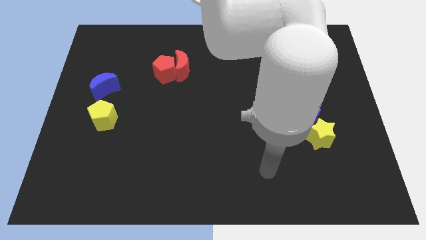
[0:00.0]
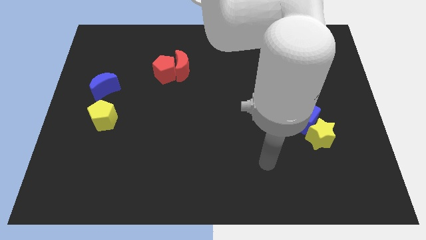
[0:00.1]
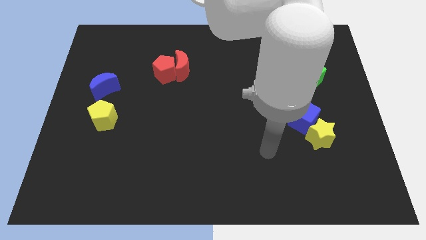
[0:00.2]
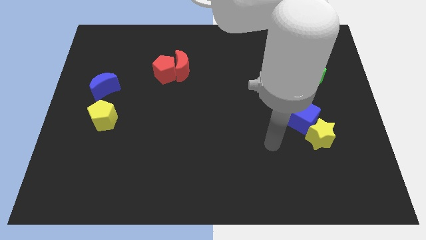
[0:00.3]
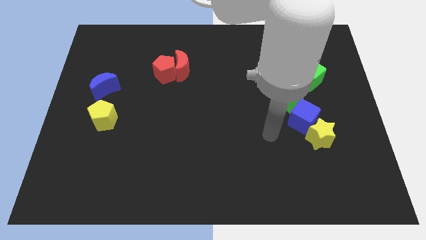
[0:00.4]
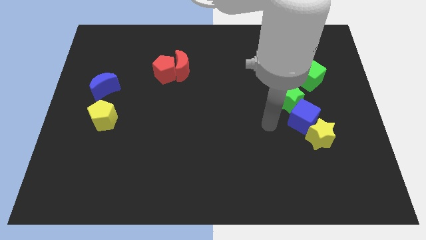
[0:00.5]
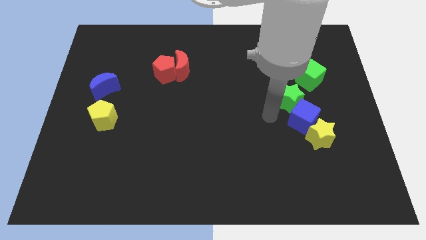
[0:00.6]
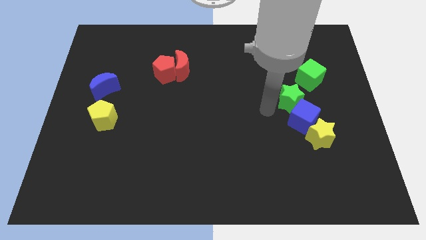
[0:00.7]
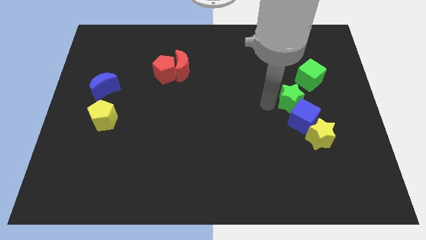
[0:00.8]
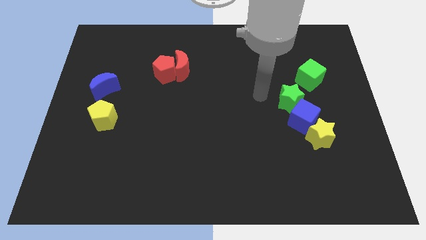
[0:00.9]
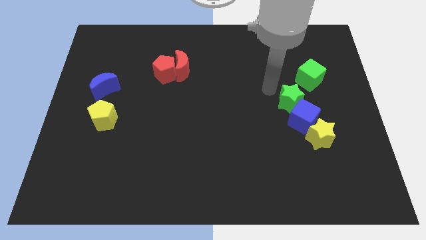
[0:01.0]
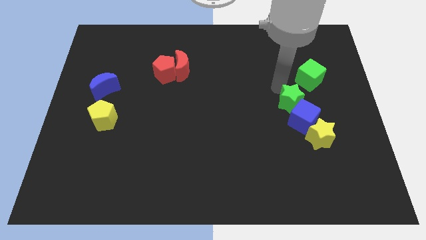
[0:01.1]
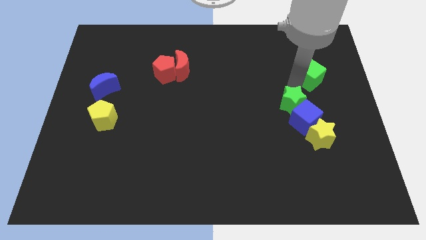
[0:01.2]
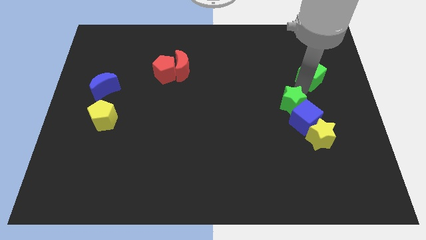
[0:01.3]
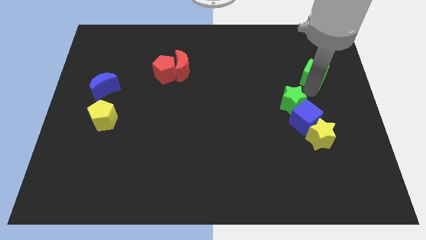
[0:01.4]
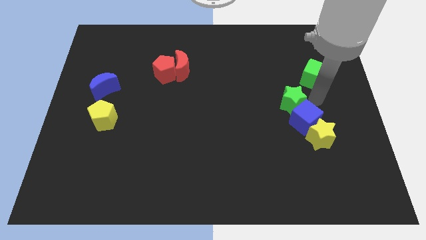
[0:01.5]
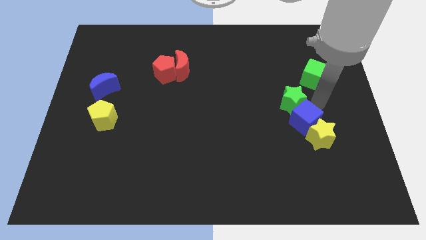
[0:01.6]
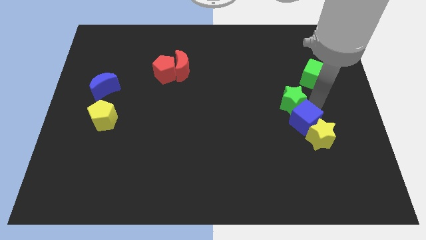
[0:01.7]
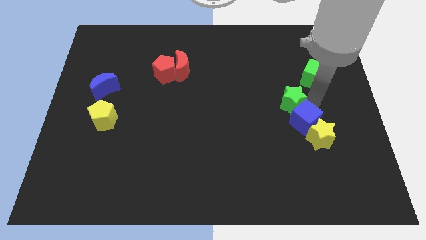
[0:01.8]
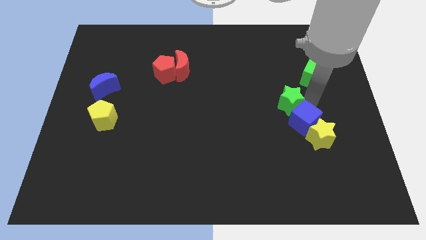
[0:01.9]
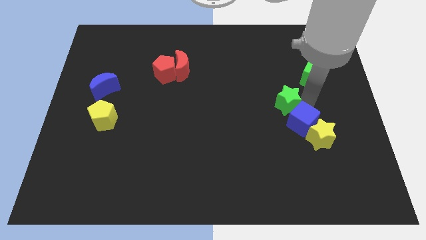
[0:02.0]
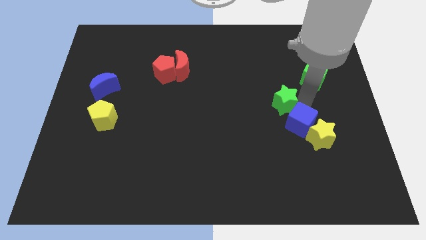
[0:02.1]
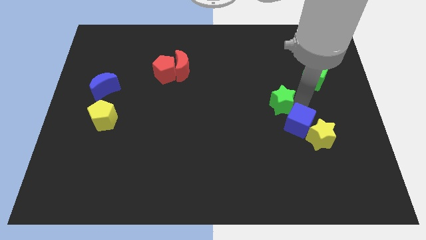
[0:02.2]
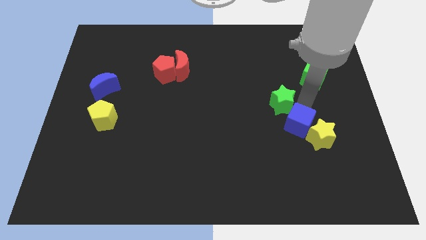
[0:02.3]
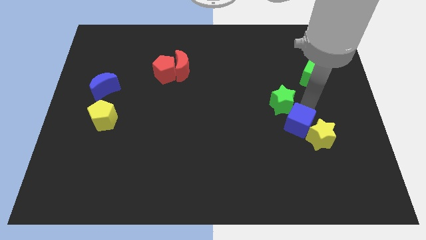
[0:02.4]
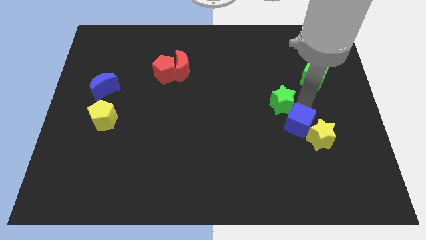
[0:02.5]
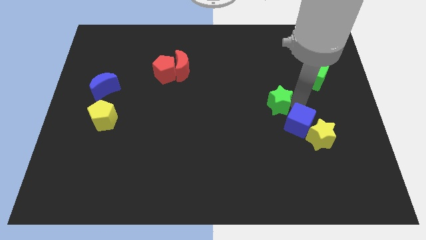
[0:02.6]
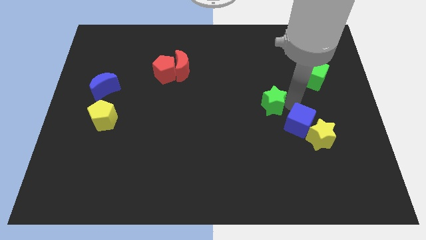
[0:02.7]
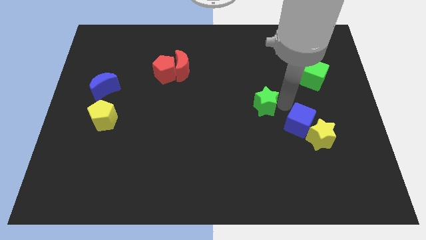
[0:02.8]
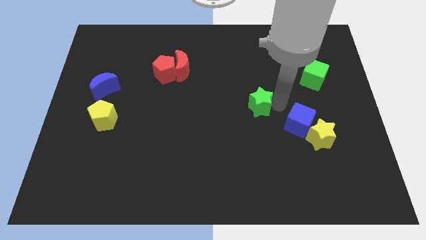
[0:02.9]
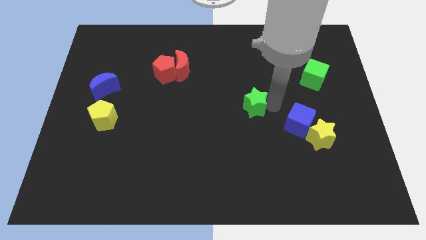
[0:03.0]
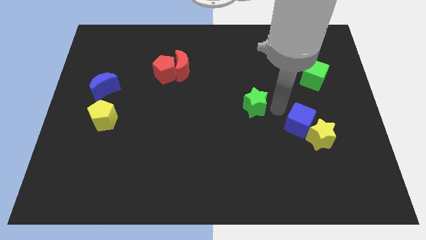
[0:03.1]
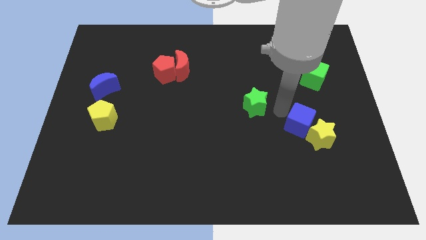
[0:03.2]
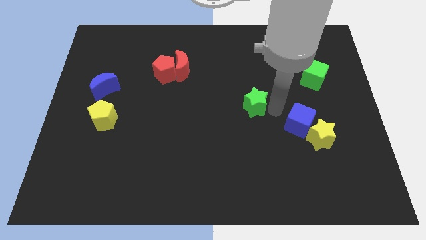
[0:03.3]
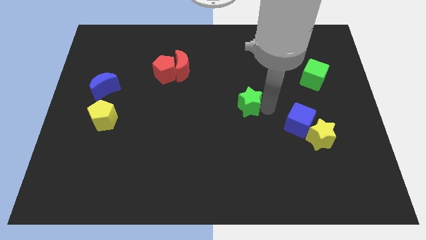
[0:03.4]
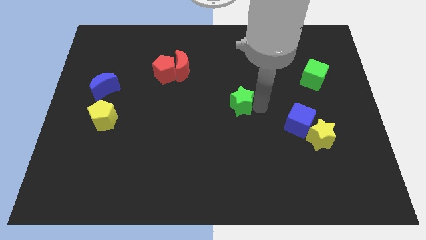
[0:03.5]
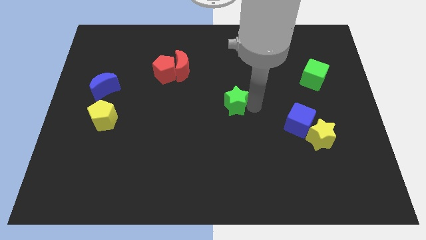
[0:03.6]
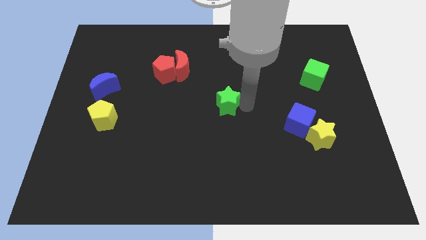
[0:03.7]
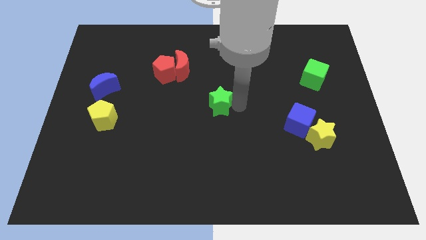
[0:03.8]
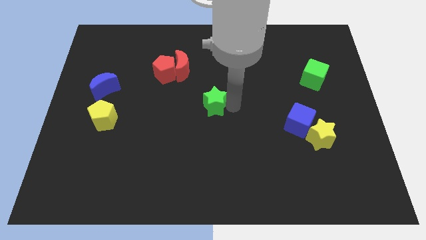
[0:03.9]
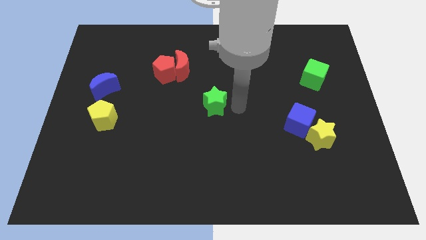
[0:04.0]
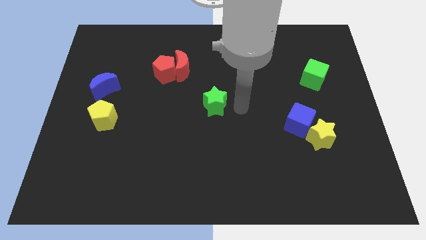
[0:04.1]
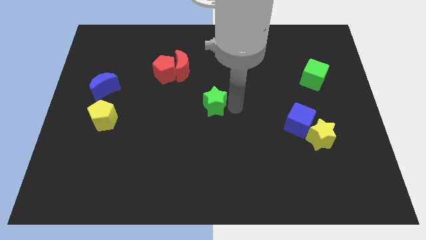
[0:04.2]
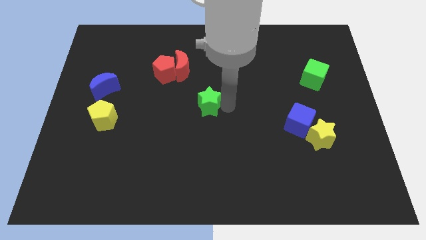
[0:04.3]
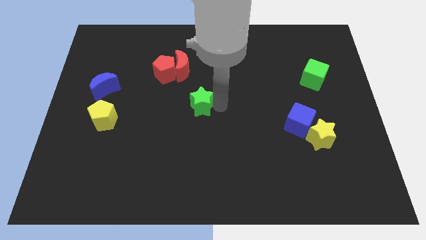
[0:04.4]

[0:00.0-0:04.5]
slide the green star to the left

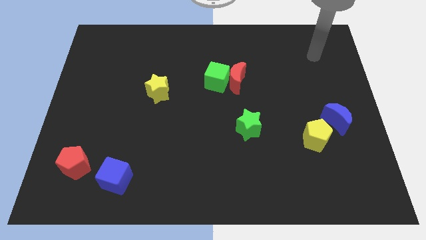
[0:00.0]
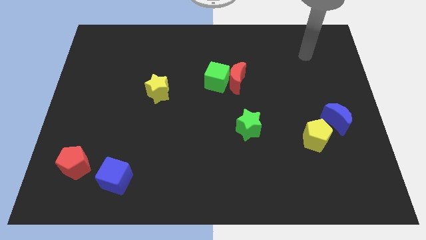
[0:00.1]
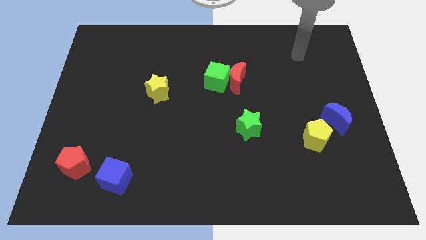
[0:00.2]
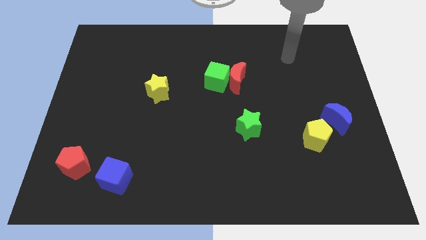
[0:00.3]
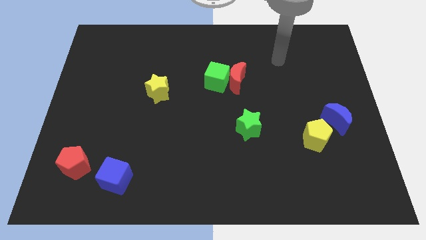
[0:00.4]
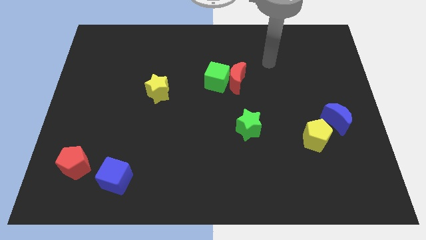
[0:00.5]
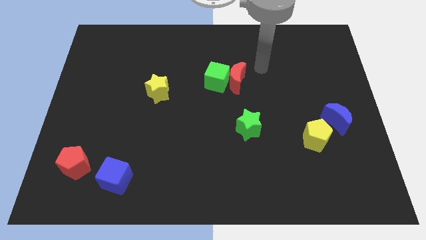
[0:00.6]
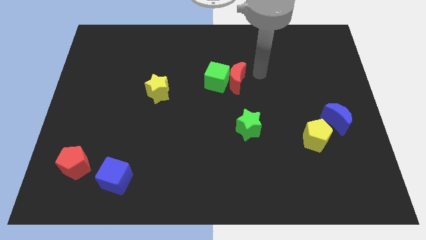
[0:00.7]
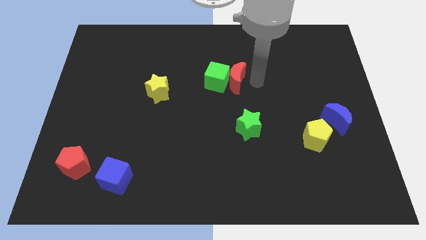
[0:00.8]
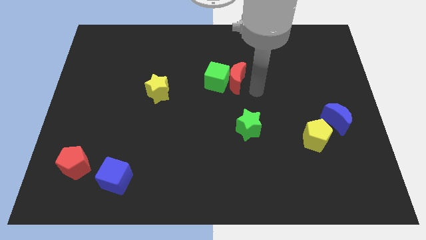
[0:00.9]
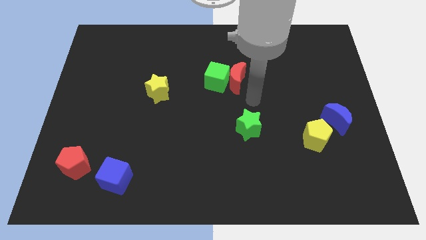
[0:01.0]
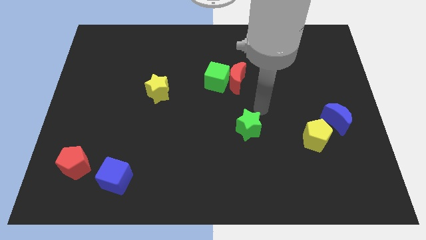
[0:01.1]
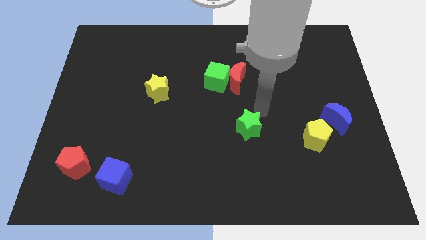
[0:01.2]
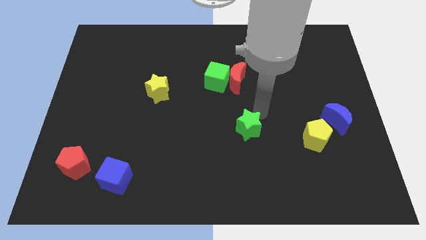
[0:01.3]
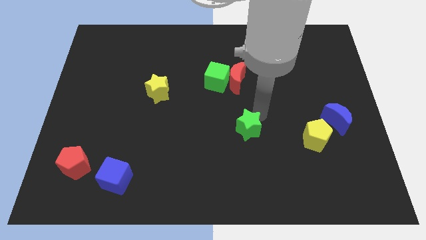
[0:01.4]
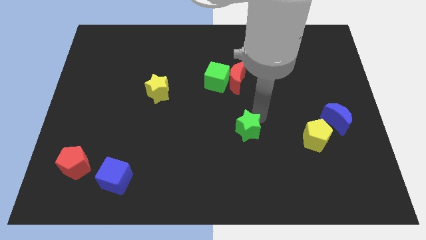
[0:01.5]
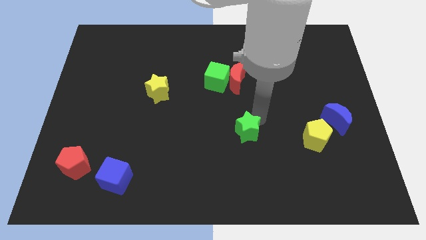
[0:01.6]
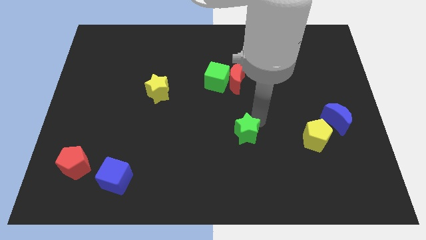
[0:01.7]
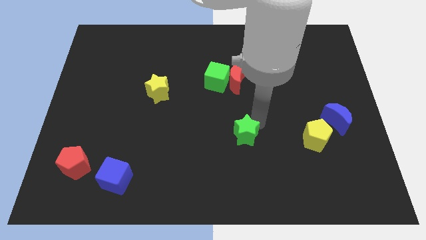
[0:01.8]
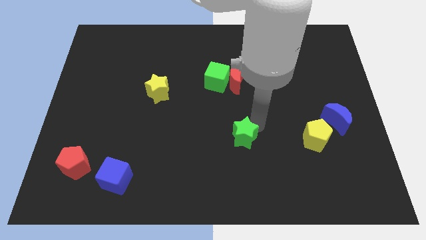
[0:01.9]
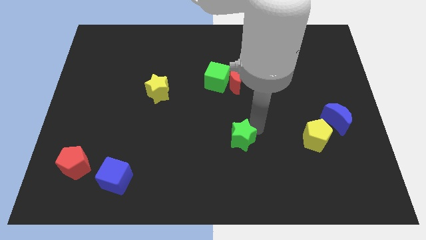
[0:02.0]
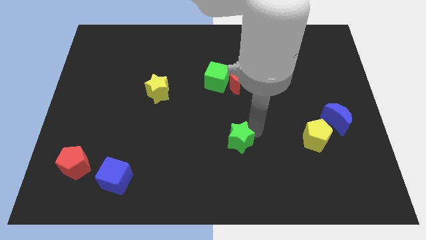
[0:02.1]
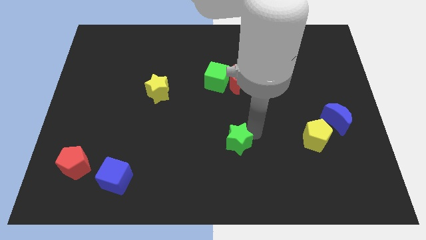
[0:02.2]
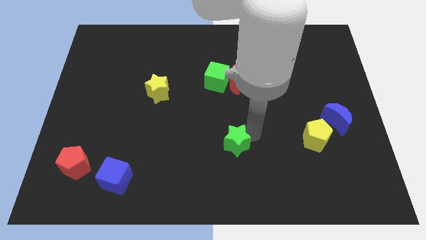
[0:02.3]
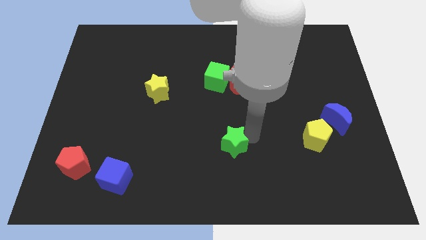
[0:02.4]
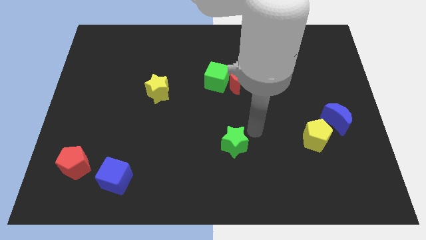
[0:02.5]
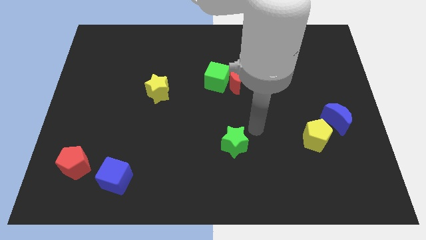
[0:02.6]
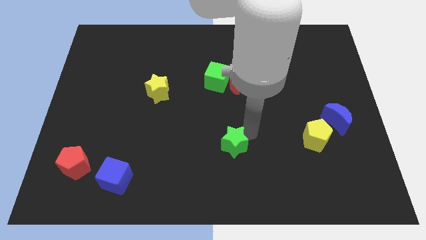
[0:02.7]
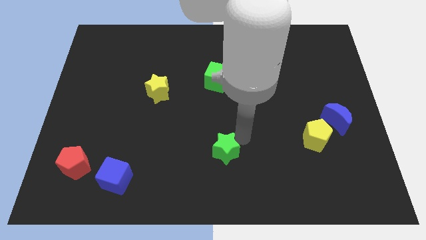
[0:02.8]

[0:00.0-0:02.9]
slightly move the green star downwards and to the left

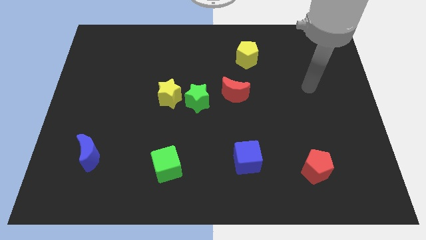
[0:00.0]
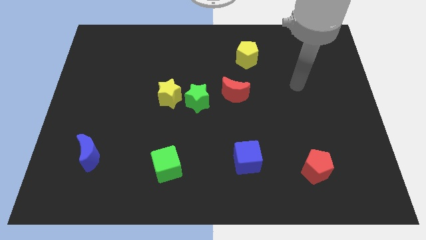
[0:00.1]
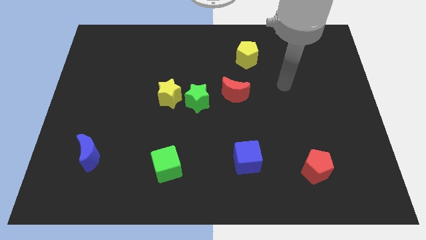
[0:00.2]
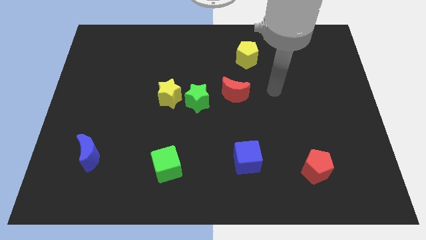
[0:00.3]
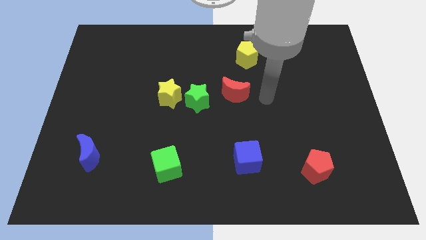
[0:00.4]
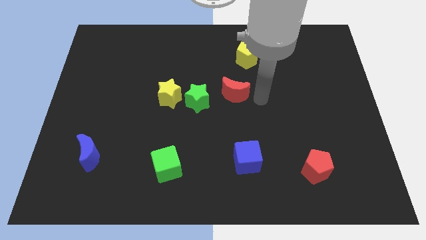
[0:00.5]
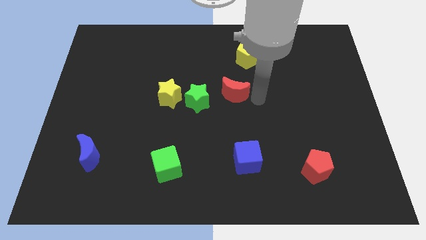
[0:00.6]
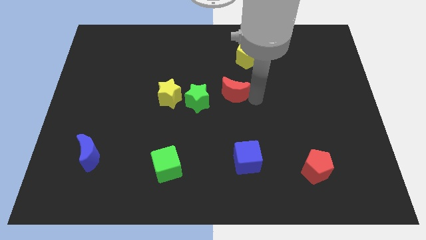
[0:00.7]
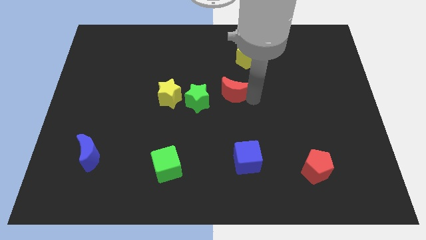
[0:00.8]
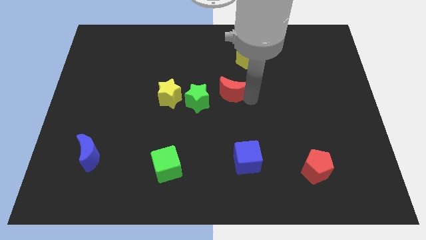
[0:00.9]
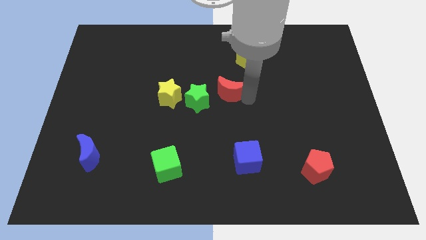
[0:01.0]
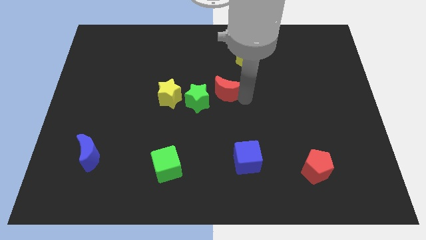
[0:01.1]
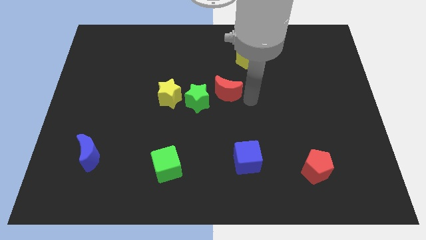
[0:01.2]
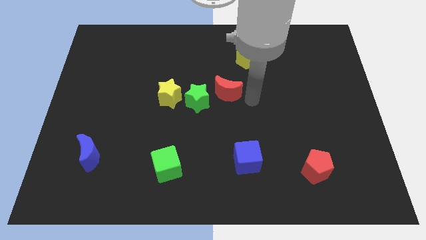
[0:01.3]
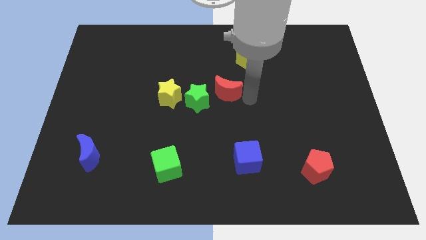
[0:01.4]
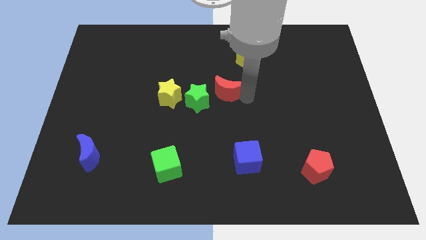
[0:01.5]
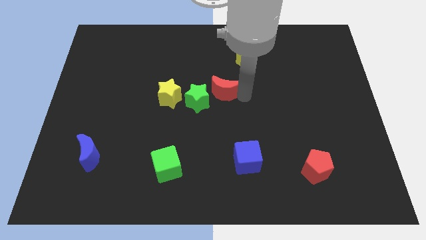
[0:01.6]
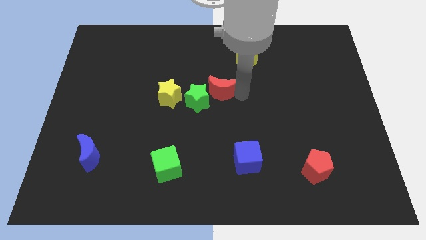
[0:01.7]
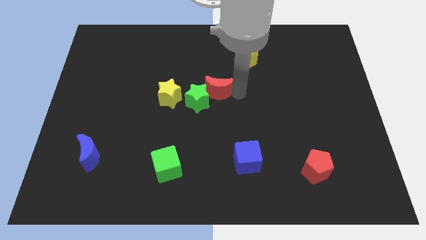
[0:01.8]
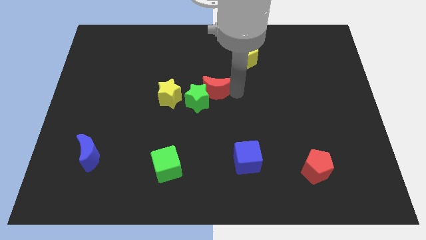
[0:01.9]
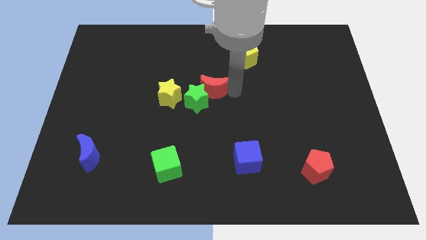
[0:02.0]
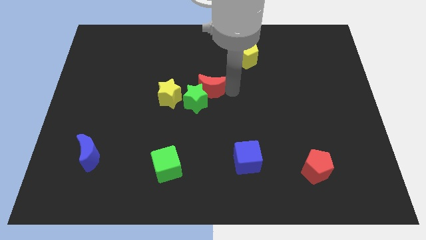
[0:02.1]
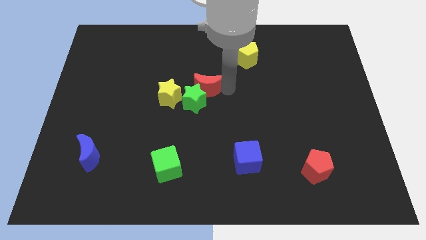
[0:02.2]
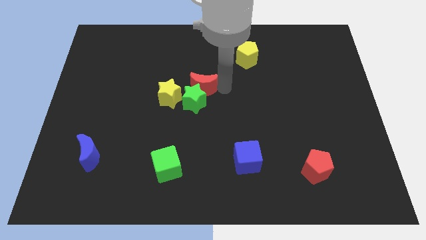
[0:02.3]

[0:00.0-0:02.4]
slightly move the red moon to the left
